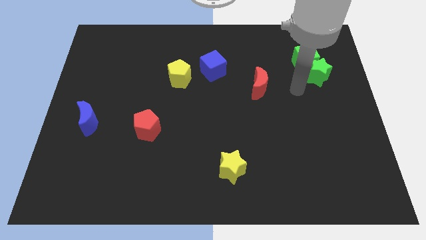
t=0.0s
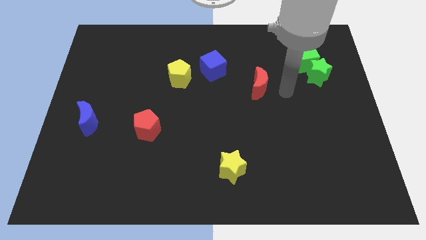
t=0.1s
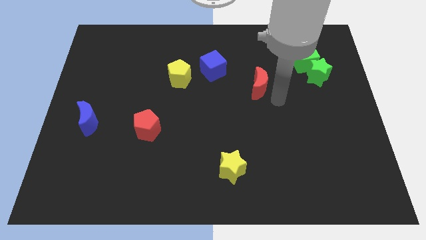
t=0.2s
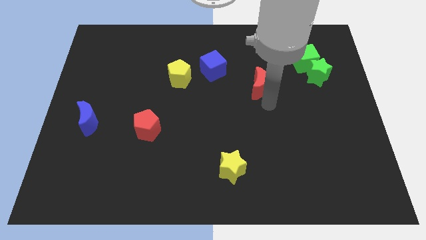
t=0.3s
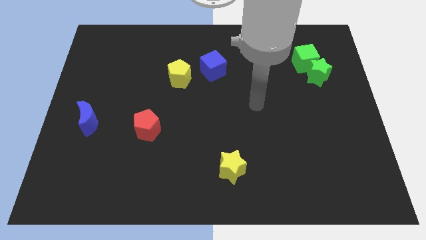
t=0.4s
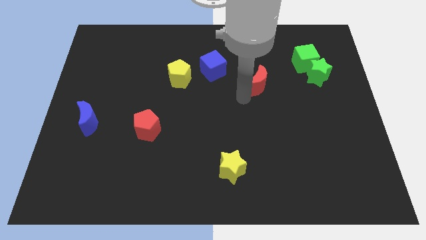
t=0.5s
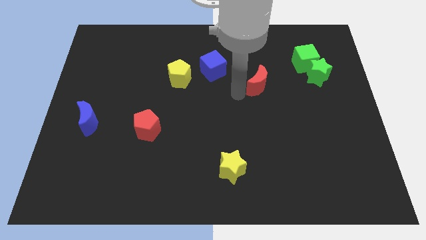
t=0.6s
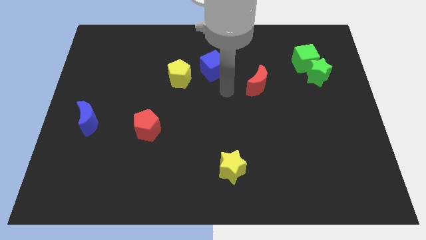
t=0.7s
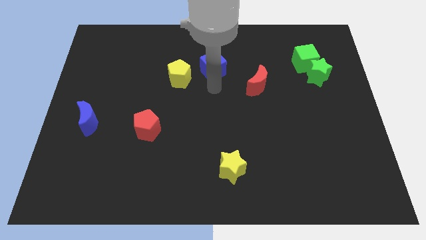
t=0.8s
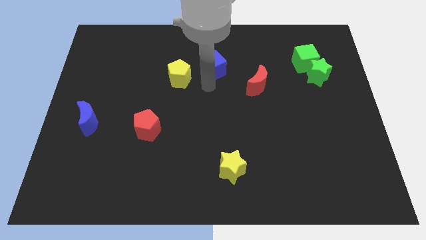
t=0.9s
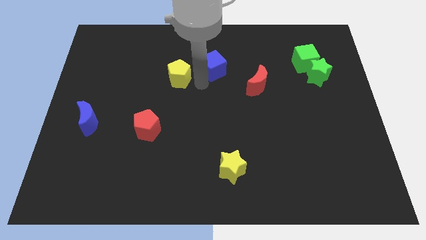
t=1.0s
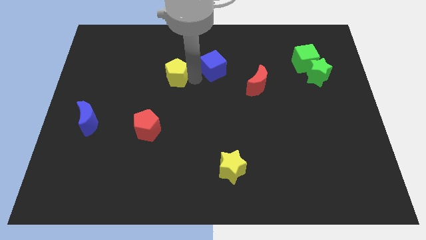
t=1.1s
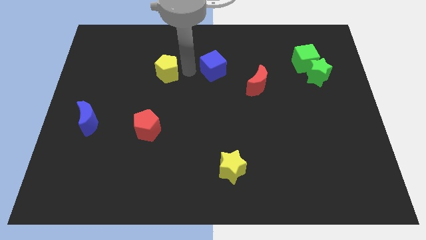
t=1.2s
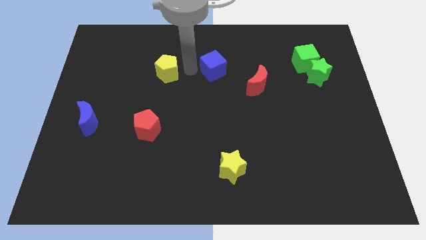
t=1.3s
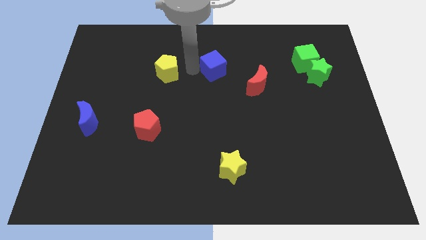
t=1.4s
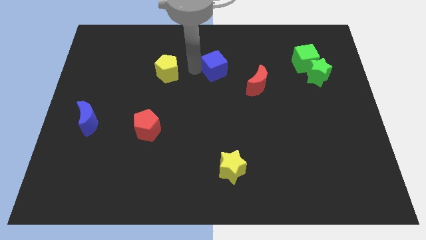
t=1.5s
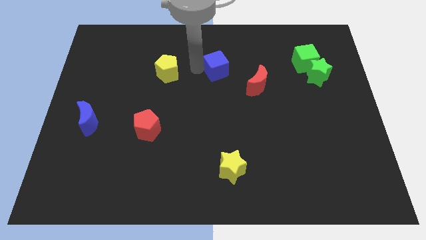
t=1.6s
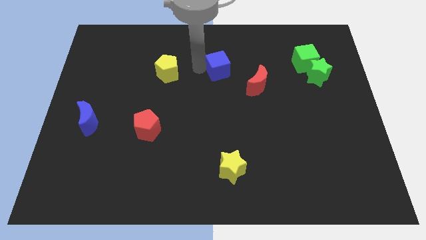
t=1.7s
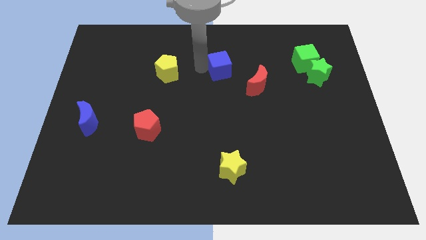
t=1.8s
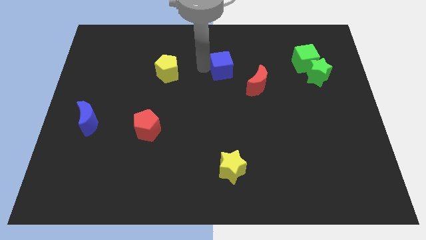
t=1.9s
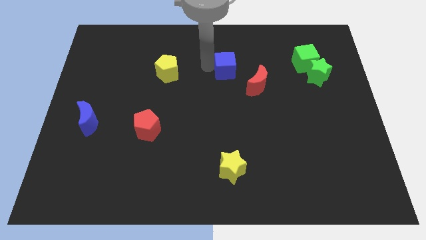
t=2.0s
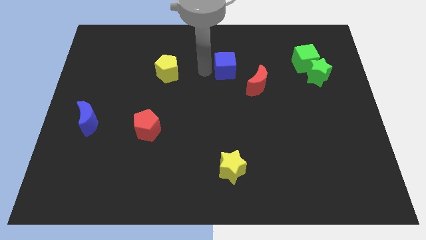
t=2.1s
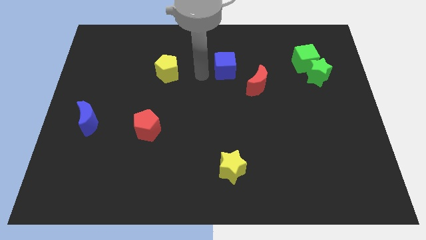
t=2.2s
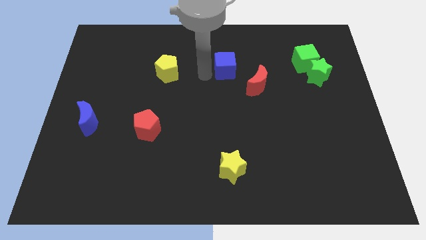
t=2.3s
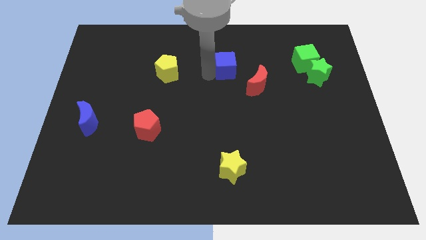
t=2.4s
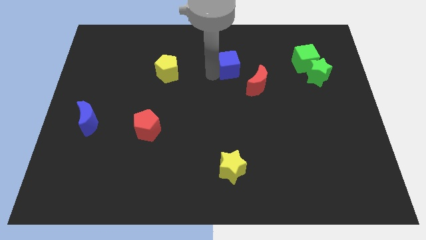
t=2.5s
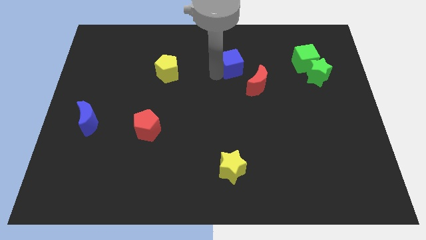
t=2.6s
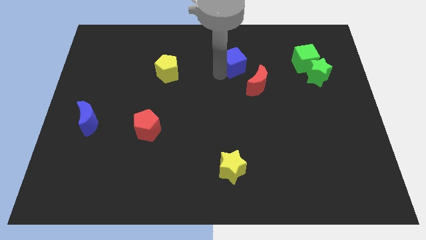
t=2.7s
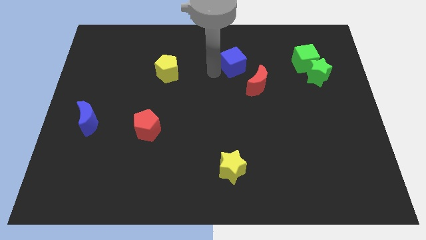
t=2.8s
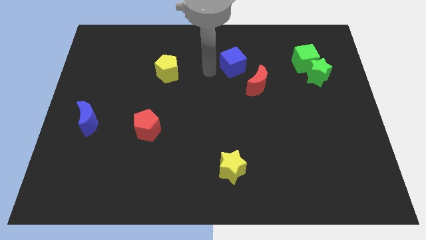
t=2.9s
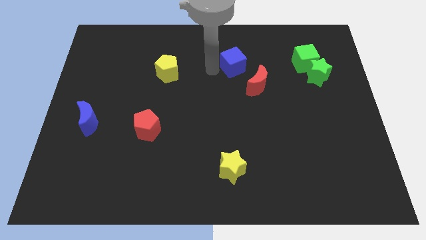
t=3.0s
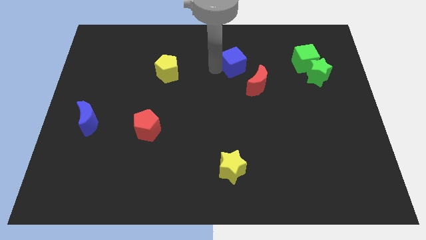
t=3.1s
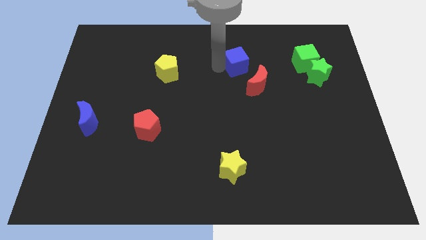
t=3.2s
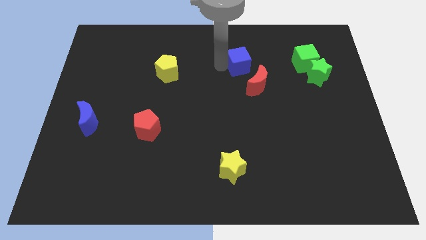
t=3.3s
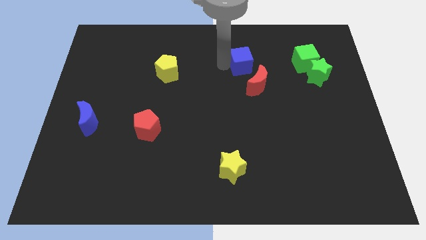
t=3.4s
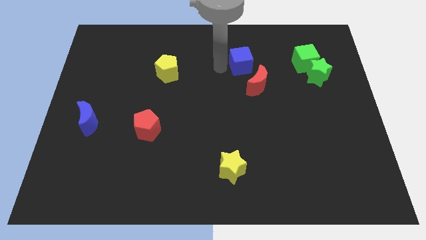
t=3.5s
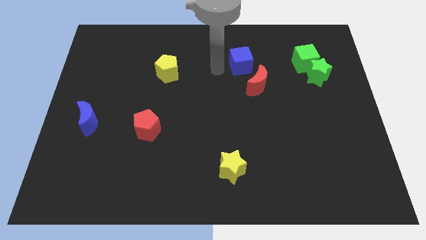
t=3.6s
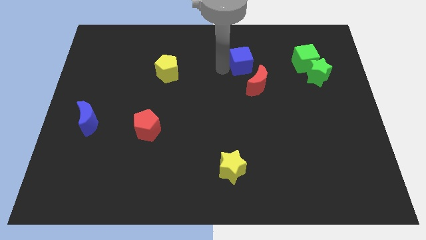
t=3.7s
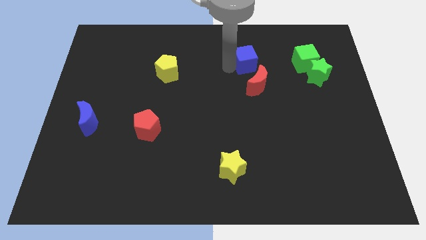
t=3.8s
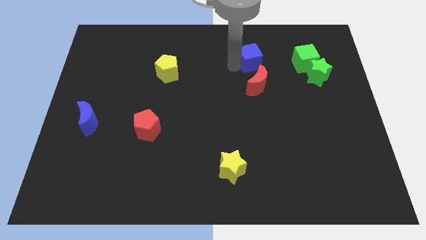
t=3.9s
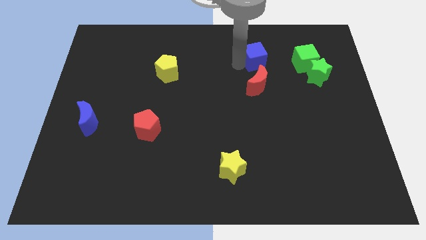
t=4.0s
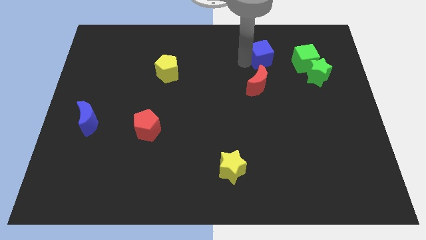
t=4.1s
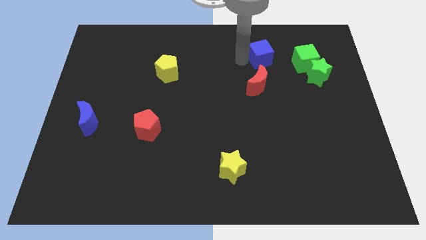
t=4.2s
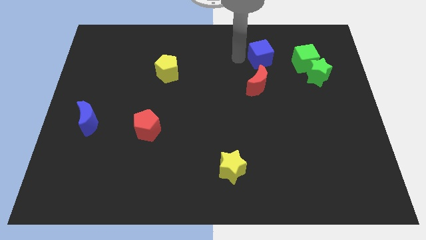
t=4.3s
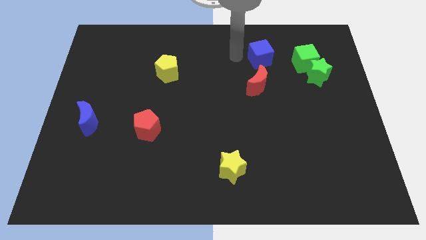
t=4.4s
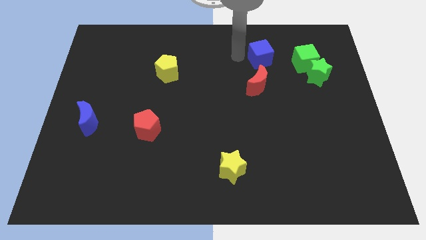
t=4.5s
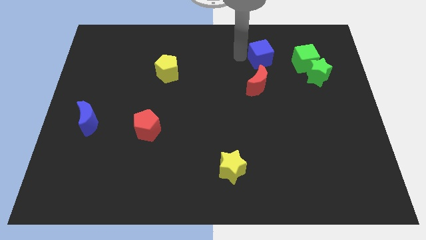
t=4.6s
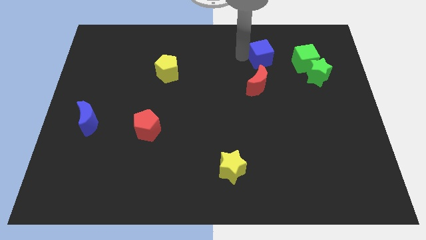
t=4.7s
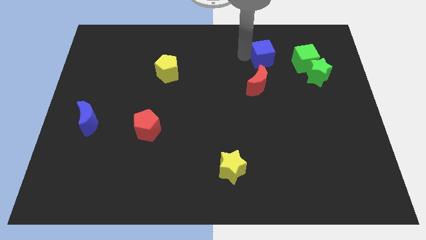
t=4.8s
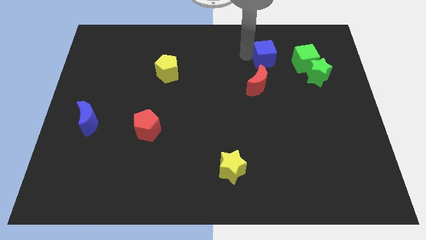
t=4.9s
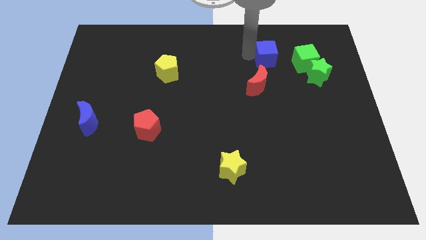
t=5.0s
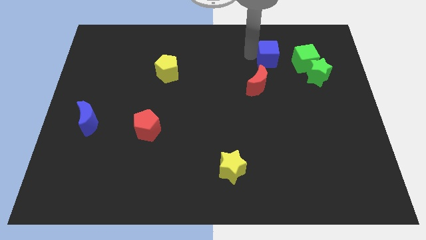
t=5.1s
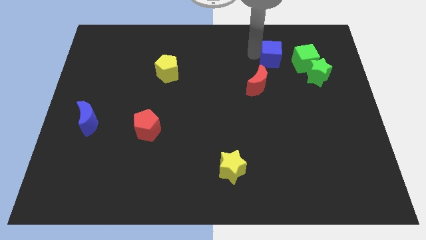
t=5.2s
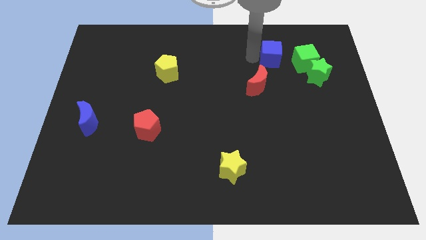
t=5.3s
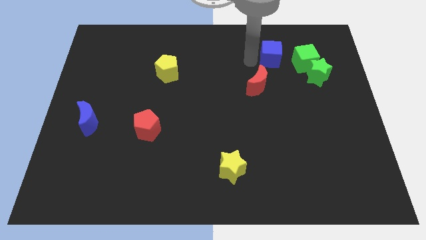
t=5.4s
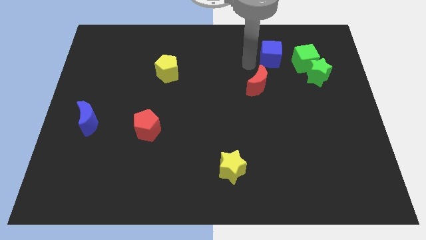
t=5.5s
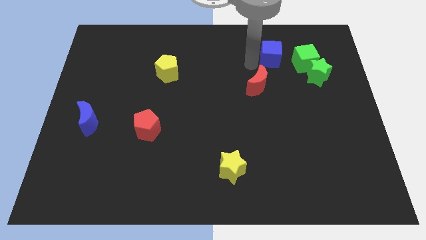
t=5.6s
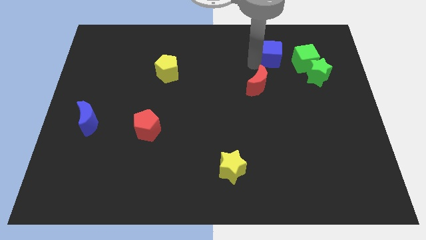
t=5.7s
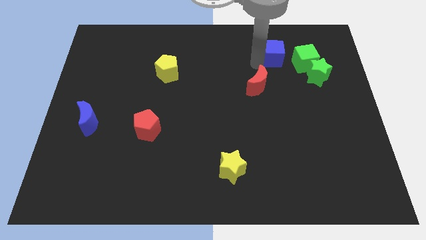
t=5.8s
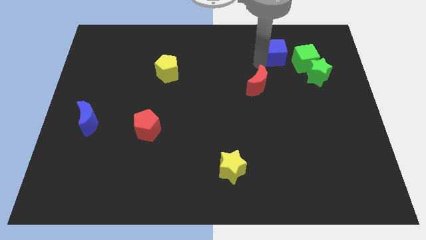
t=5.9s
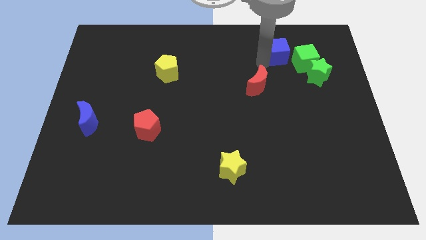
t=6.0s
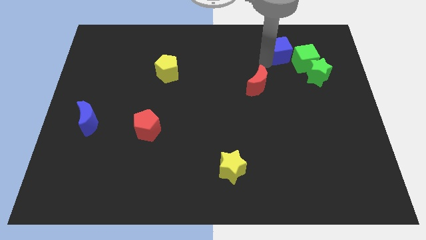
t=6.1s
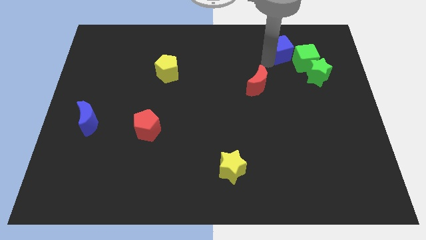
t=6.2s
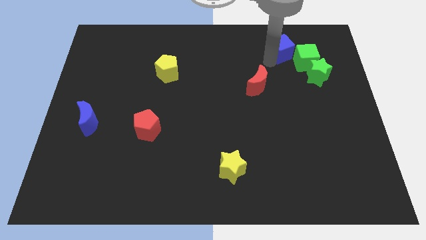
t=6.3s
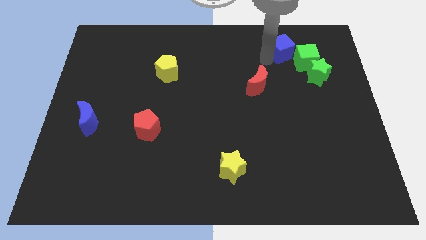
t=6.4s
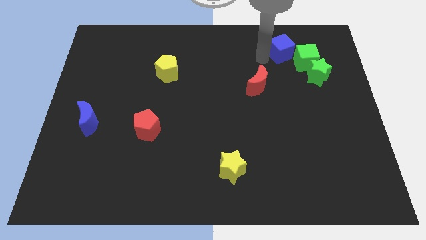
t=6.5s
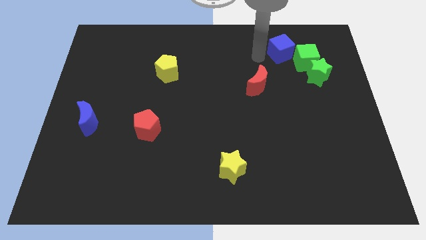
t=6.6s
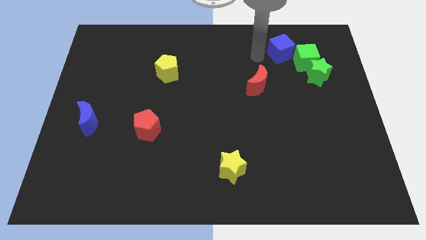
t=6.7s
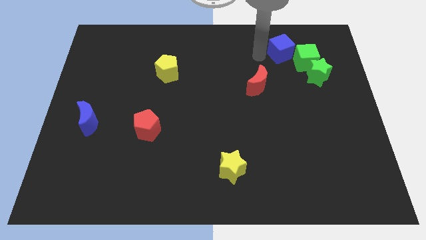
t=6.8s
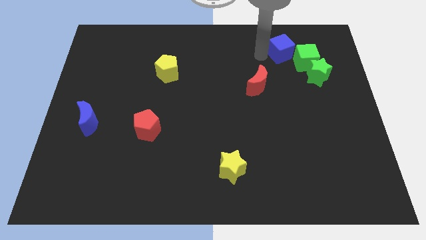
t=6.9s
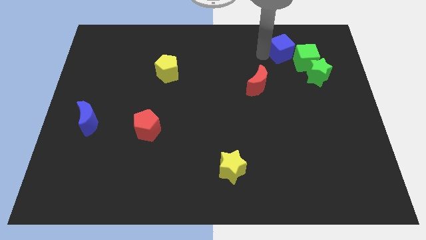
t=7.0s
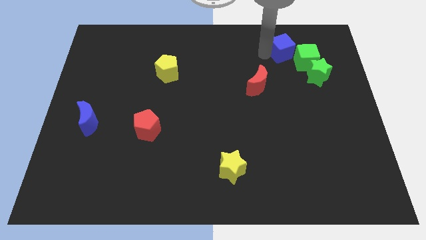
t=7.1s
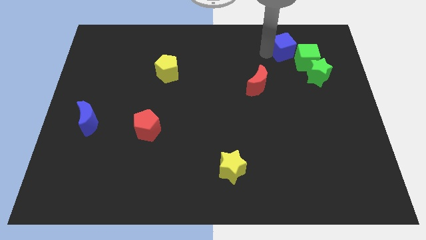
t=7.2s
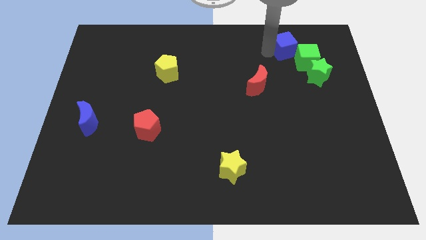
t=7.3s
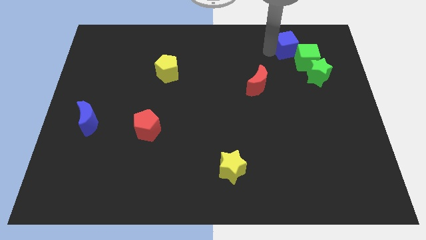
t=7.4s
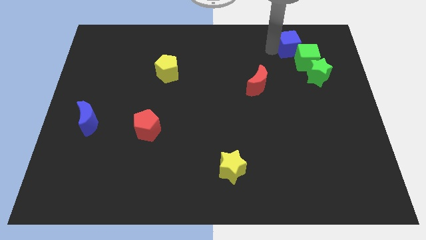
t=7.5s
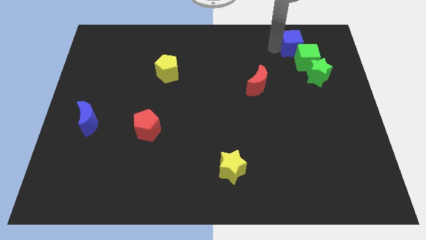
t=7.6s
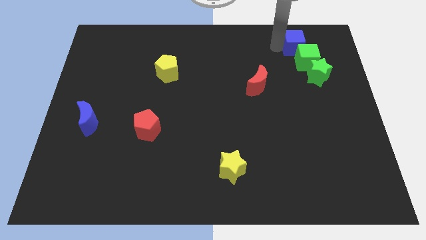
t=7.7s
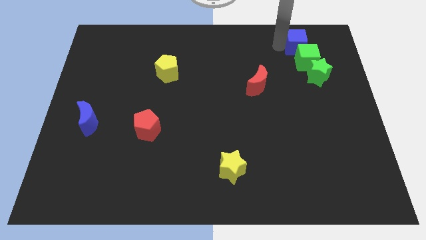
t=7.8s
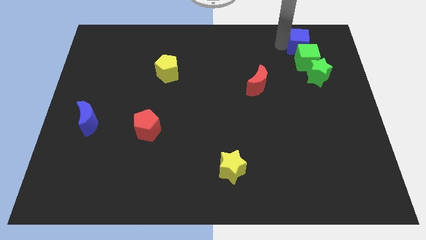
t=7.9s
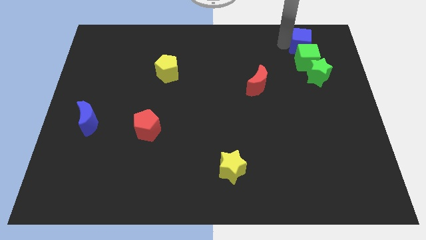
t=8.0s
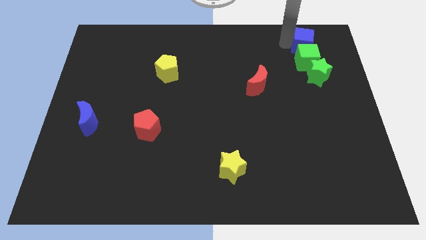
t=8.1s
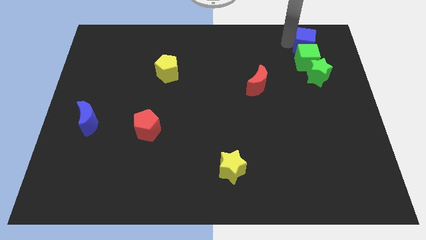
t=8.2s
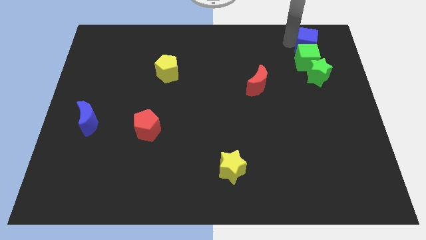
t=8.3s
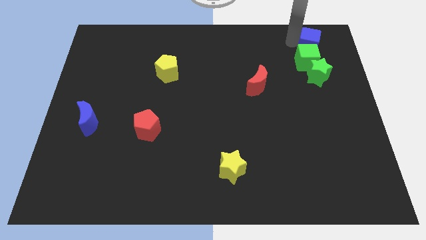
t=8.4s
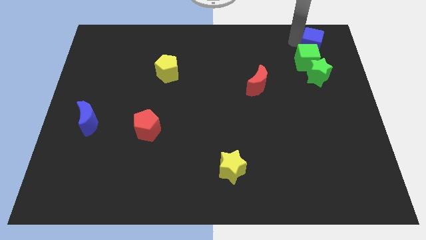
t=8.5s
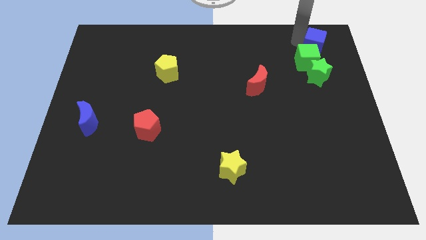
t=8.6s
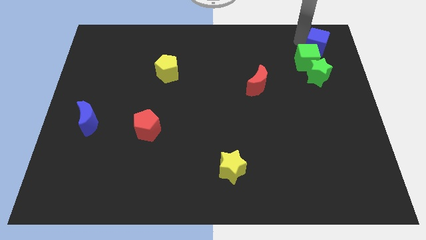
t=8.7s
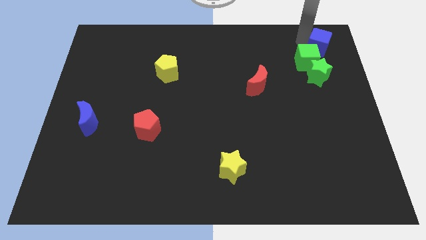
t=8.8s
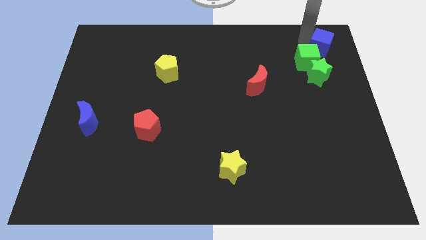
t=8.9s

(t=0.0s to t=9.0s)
slide the blue cube to the top right corner
